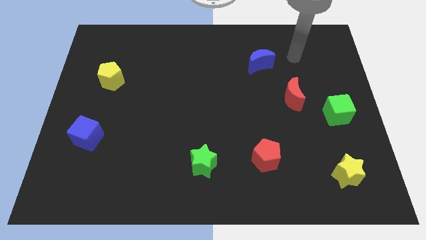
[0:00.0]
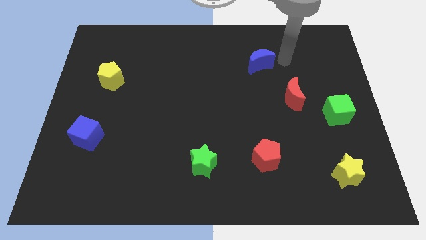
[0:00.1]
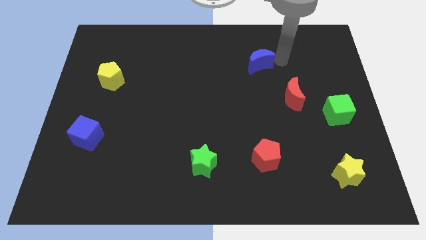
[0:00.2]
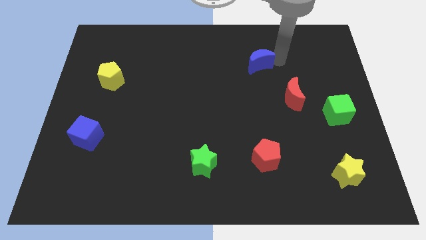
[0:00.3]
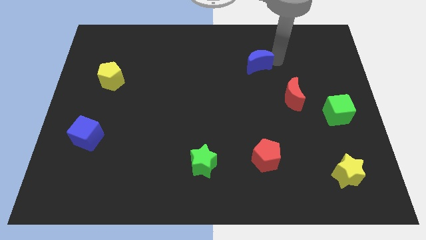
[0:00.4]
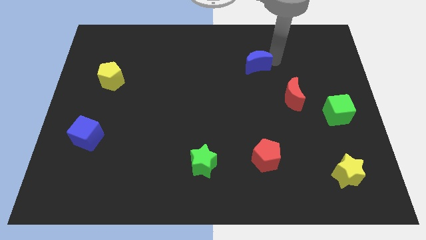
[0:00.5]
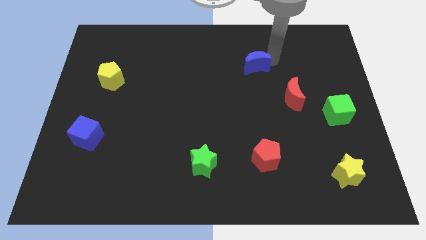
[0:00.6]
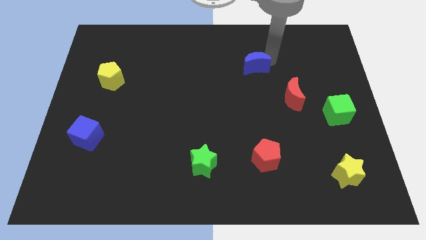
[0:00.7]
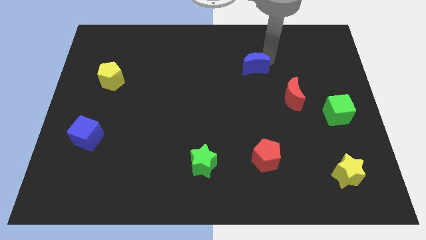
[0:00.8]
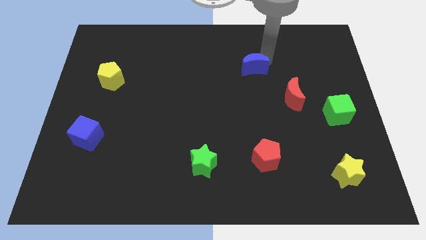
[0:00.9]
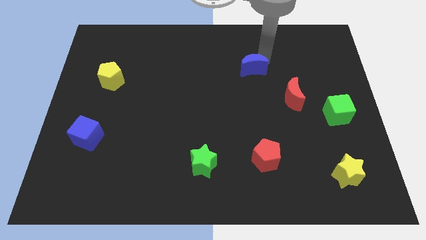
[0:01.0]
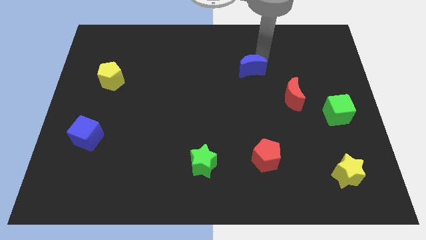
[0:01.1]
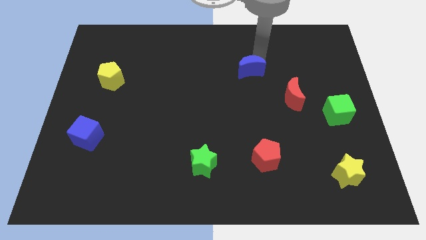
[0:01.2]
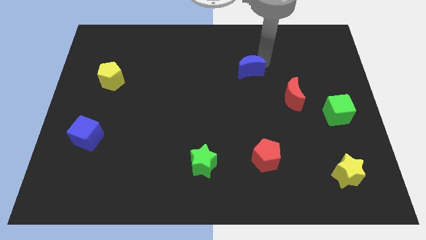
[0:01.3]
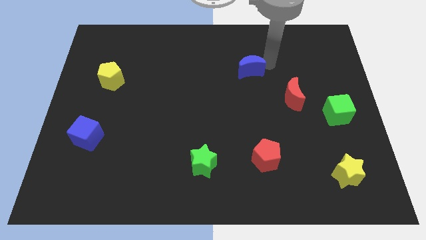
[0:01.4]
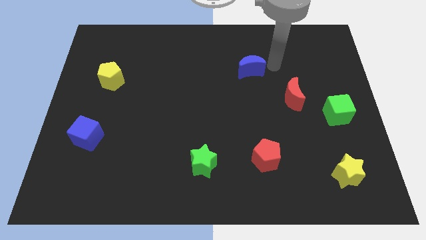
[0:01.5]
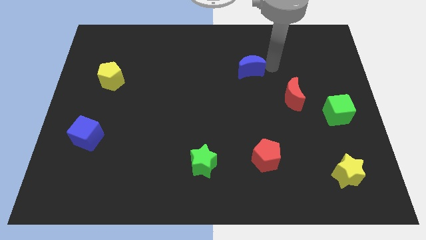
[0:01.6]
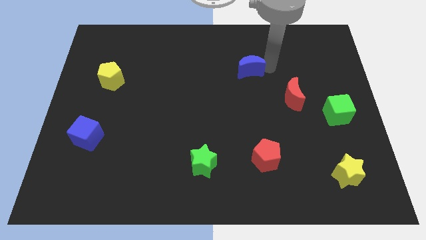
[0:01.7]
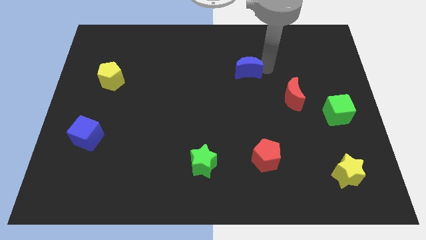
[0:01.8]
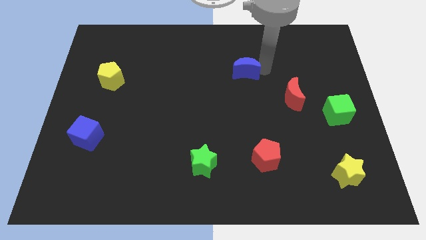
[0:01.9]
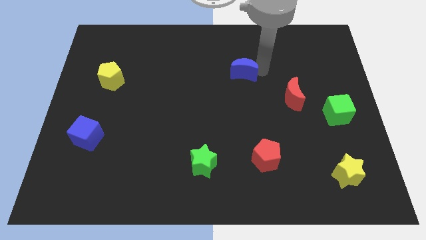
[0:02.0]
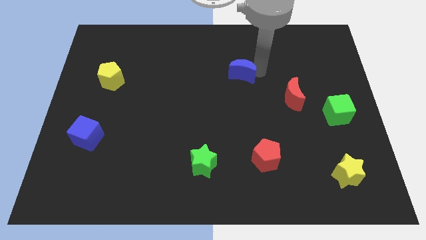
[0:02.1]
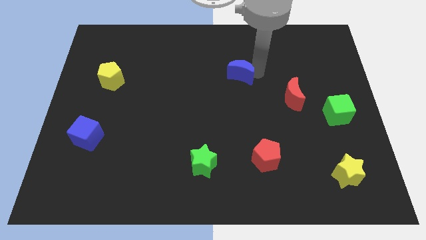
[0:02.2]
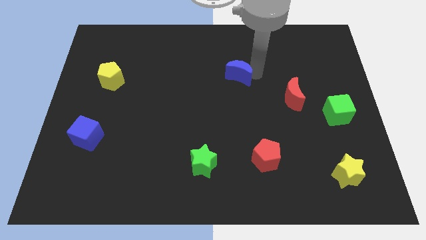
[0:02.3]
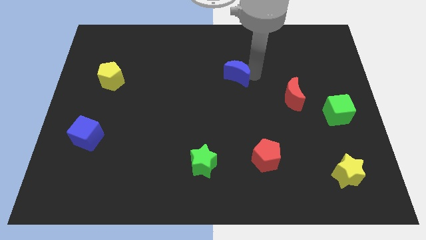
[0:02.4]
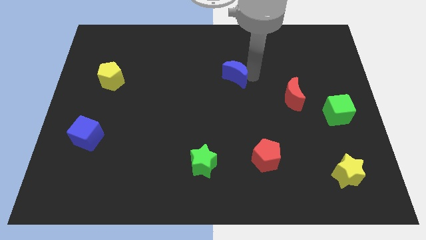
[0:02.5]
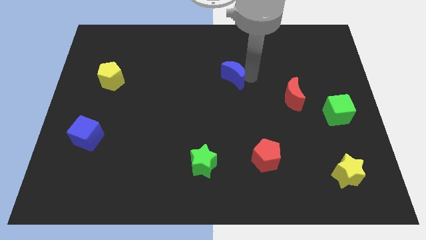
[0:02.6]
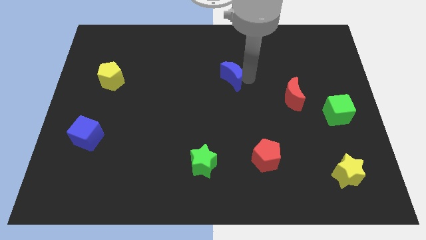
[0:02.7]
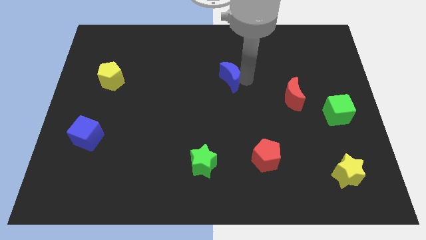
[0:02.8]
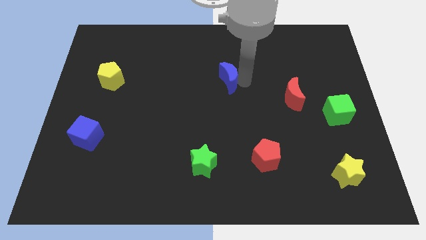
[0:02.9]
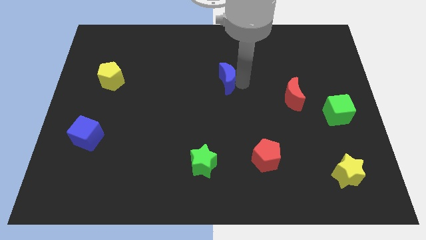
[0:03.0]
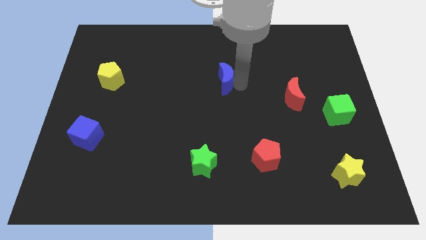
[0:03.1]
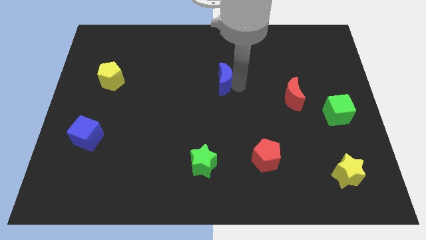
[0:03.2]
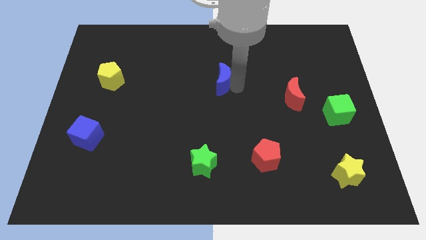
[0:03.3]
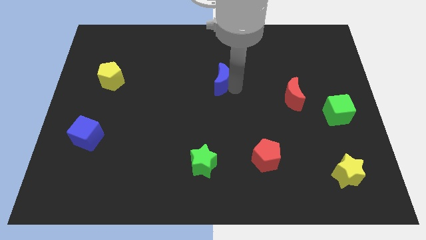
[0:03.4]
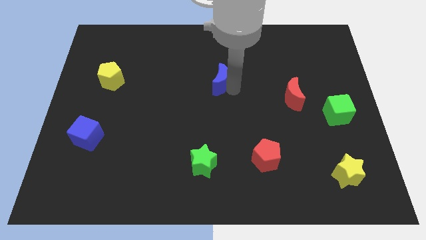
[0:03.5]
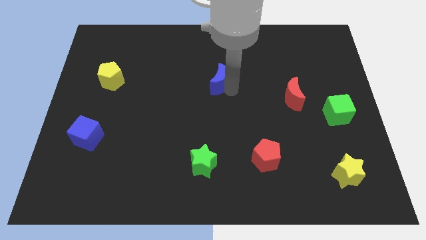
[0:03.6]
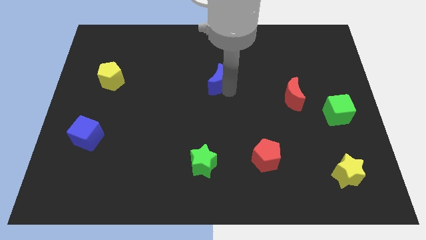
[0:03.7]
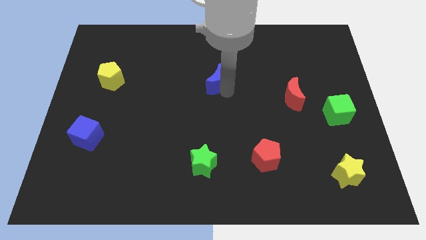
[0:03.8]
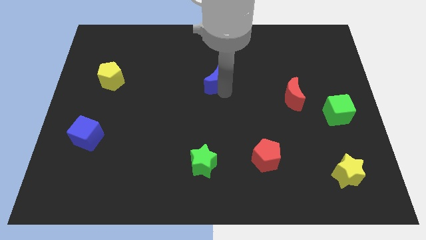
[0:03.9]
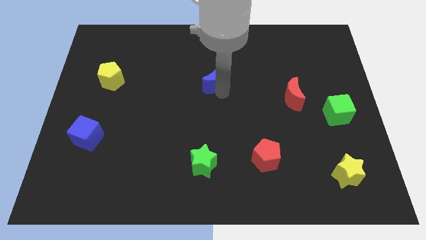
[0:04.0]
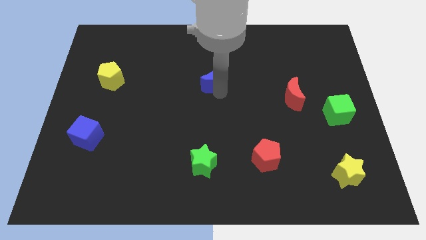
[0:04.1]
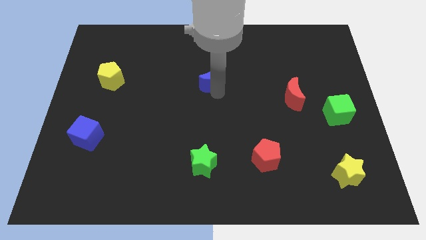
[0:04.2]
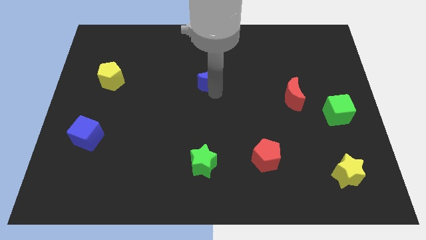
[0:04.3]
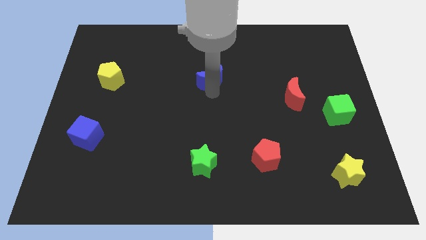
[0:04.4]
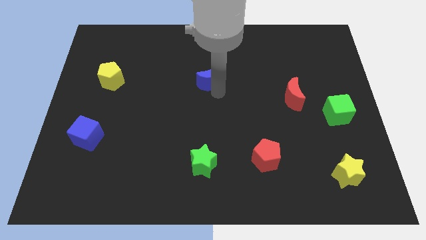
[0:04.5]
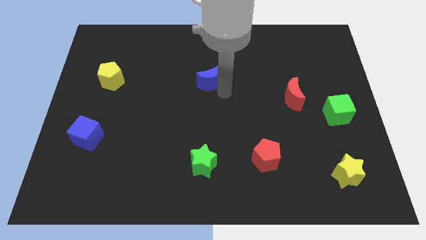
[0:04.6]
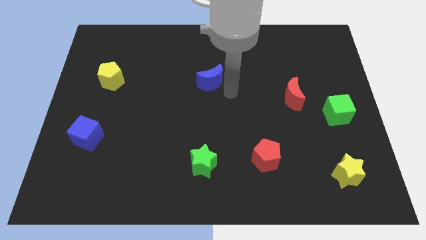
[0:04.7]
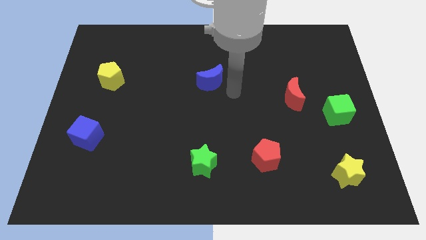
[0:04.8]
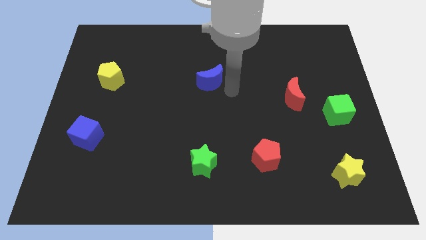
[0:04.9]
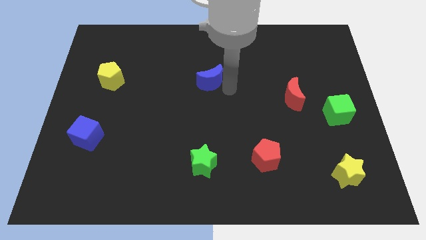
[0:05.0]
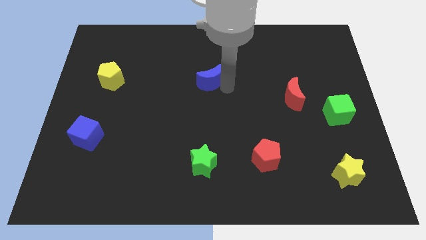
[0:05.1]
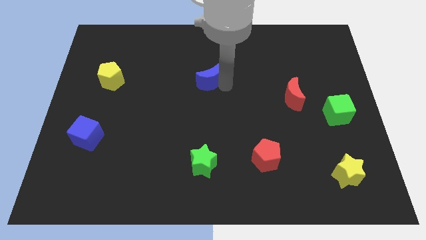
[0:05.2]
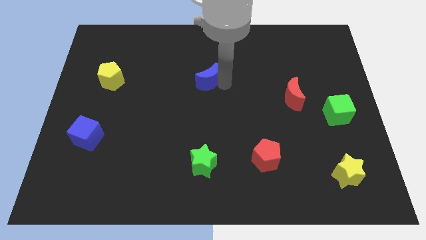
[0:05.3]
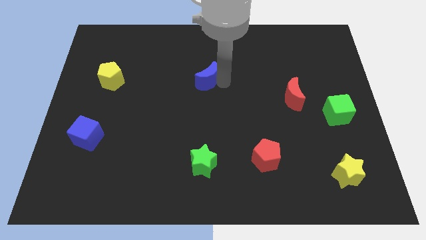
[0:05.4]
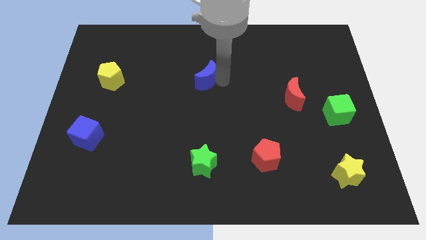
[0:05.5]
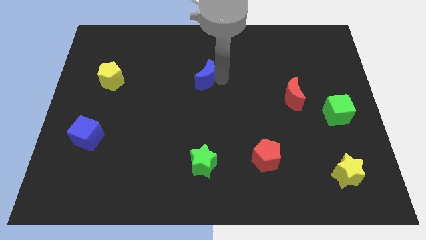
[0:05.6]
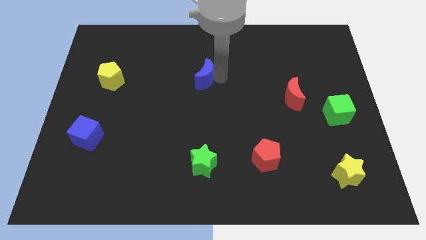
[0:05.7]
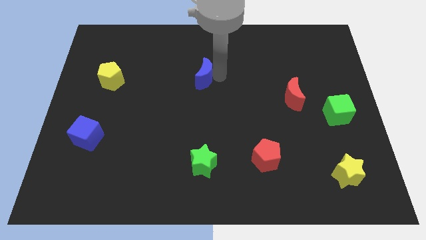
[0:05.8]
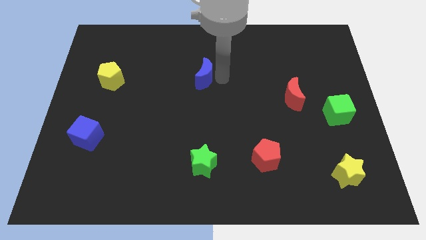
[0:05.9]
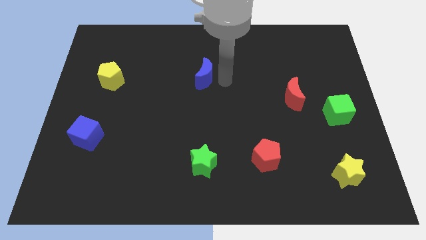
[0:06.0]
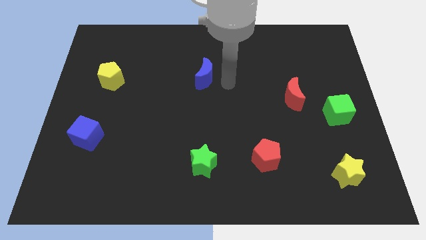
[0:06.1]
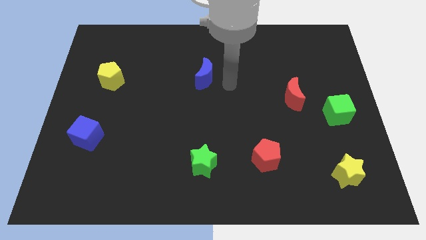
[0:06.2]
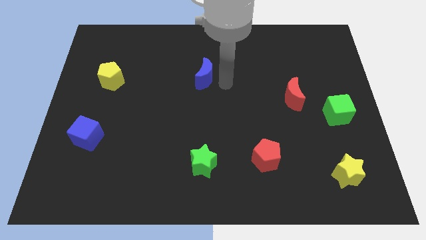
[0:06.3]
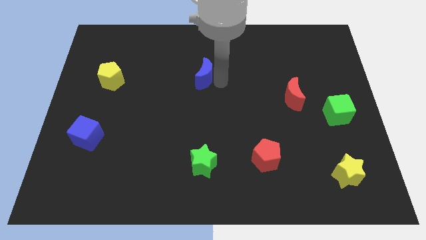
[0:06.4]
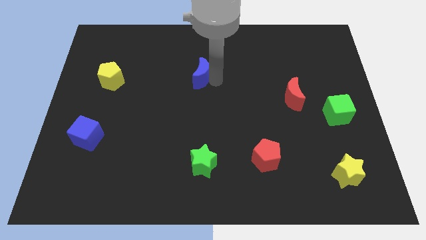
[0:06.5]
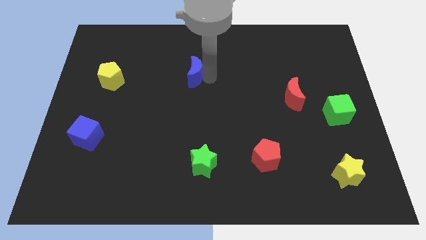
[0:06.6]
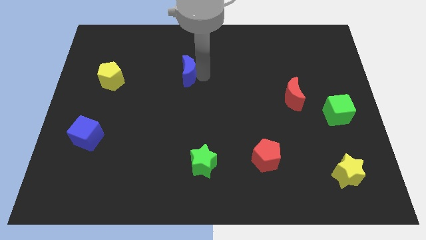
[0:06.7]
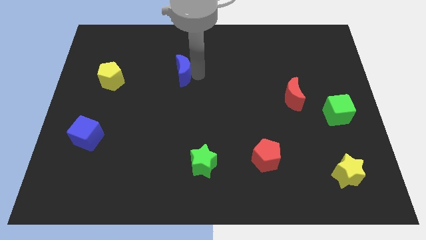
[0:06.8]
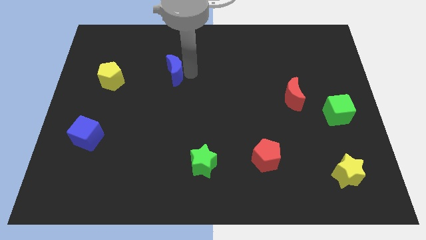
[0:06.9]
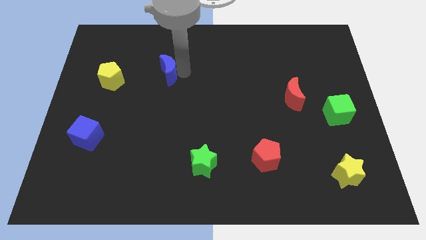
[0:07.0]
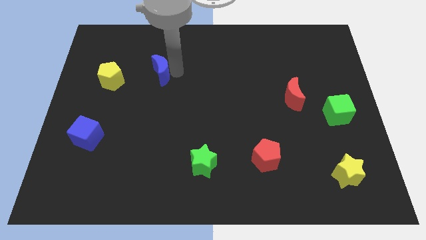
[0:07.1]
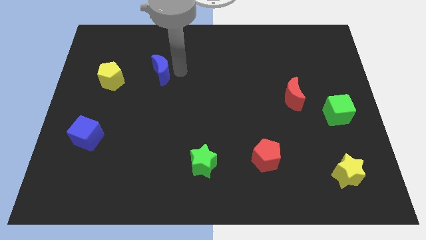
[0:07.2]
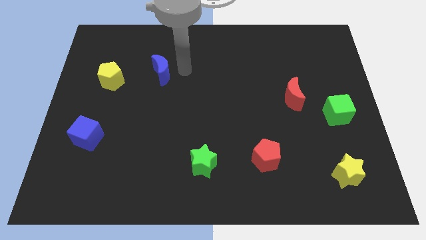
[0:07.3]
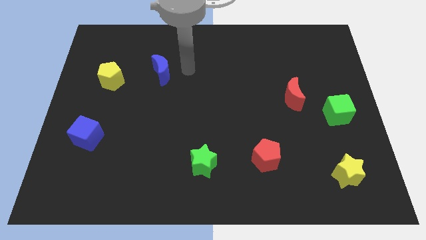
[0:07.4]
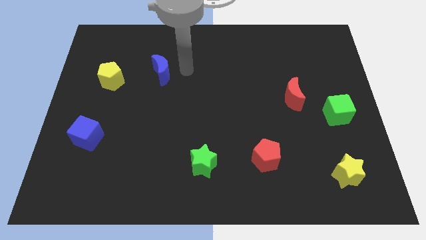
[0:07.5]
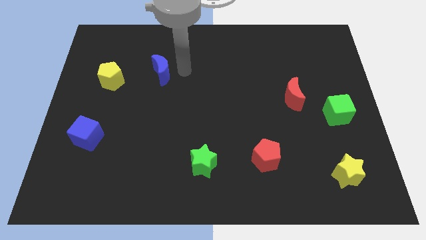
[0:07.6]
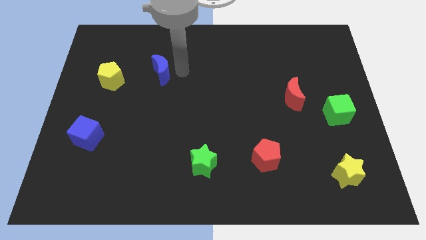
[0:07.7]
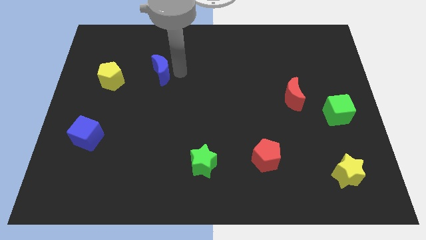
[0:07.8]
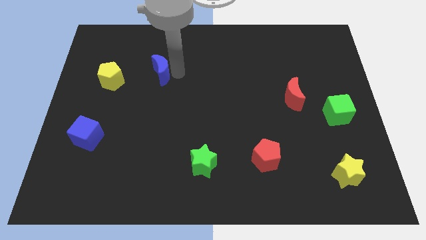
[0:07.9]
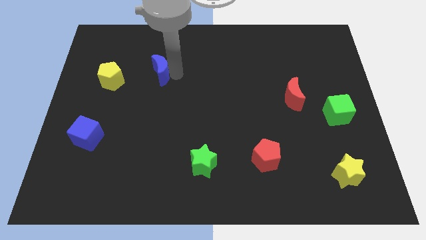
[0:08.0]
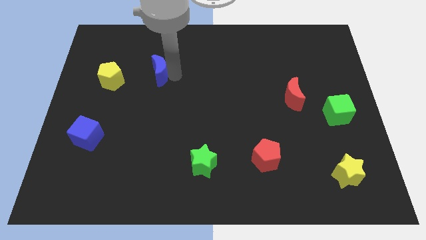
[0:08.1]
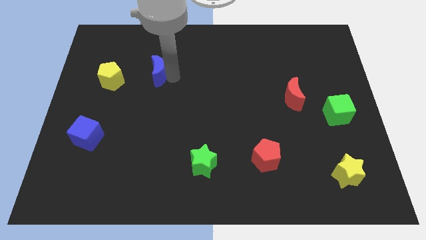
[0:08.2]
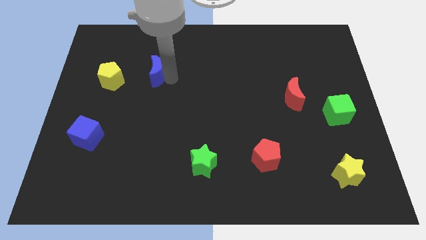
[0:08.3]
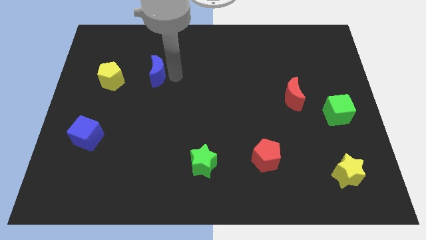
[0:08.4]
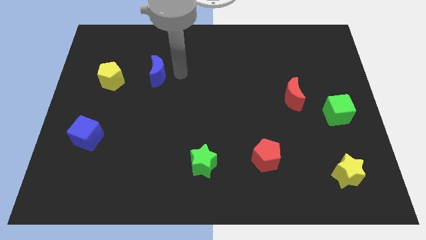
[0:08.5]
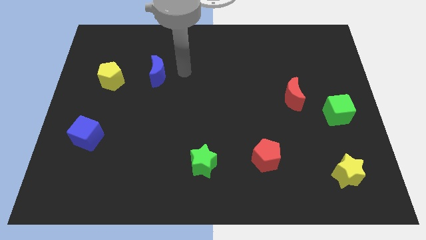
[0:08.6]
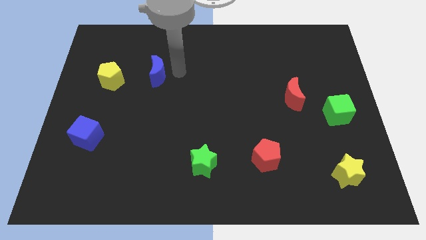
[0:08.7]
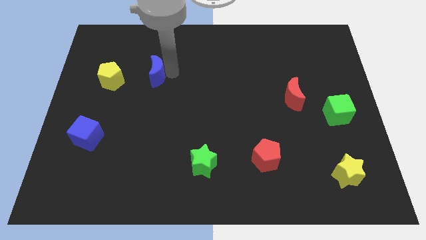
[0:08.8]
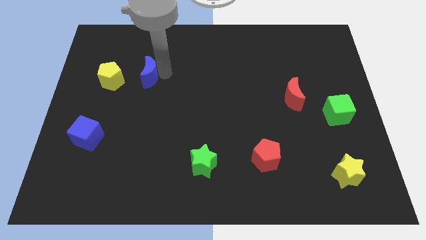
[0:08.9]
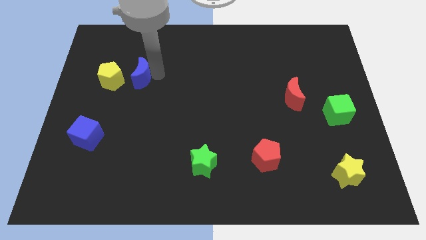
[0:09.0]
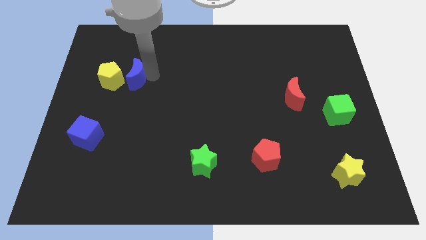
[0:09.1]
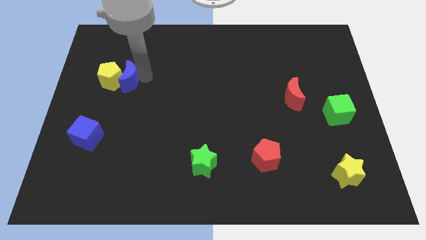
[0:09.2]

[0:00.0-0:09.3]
push the blue moon close to the yellow pentagon
